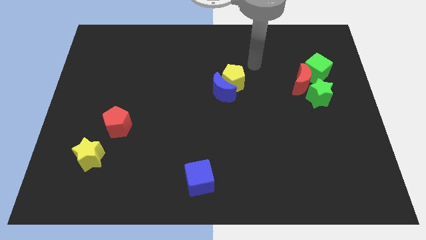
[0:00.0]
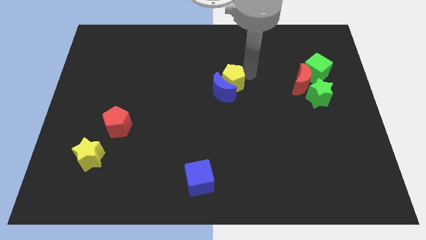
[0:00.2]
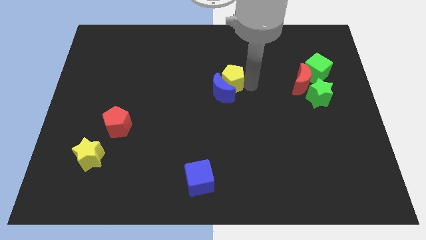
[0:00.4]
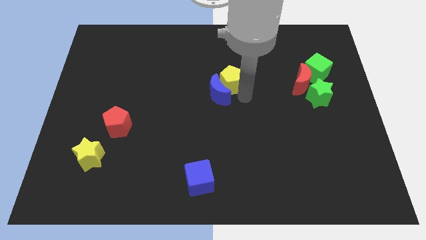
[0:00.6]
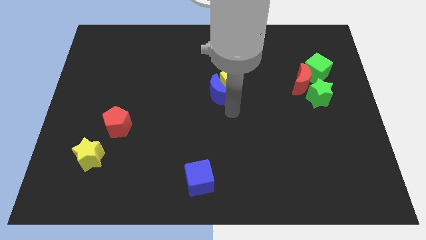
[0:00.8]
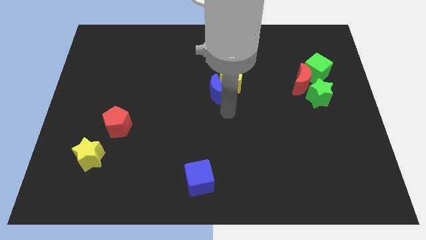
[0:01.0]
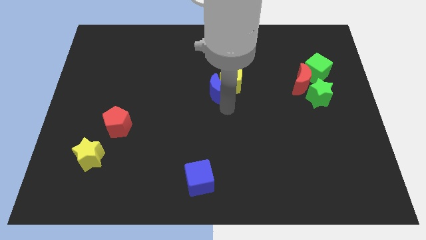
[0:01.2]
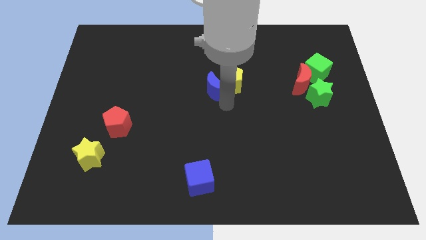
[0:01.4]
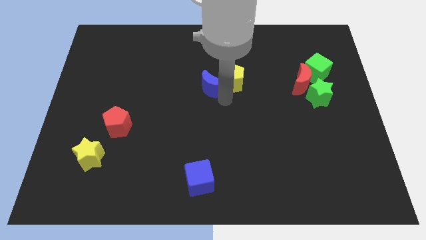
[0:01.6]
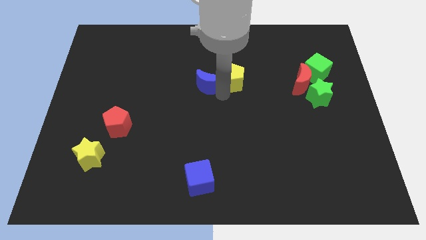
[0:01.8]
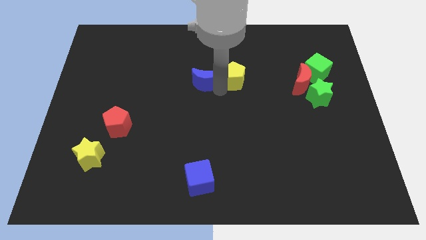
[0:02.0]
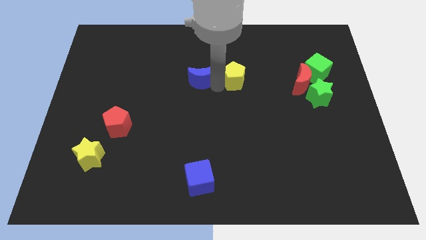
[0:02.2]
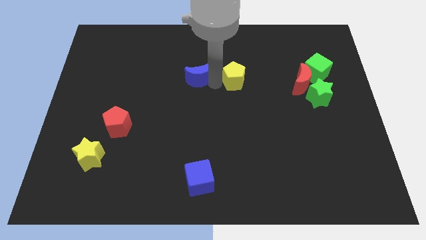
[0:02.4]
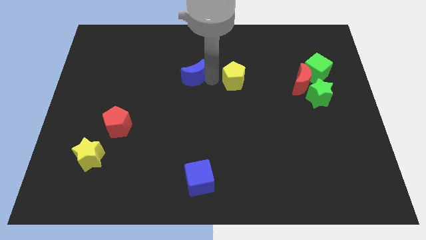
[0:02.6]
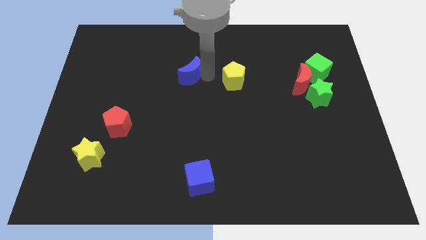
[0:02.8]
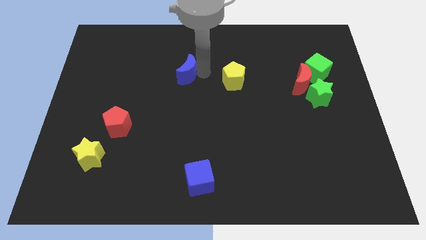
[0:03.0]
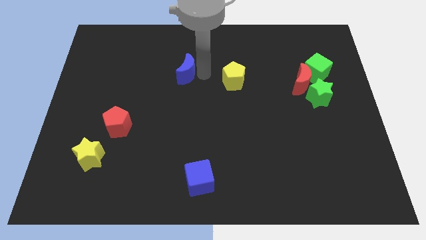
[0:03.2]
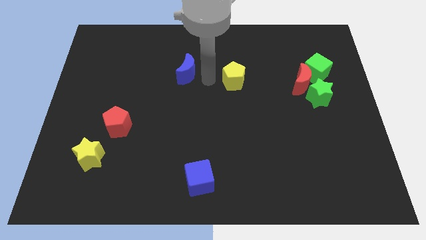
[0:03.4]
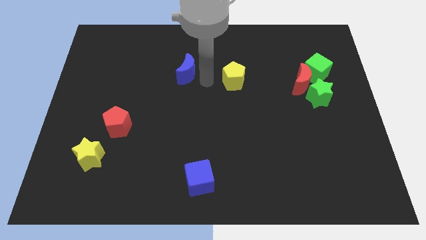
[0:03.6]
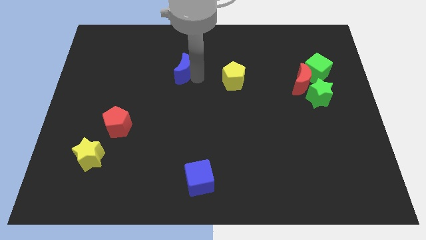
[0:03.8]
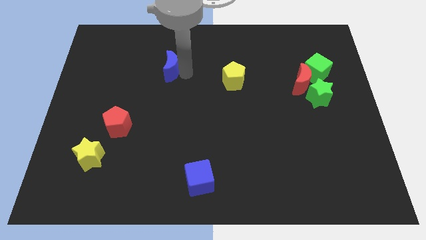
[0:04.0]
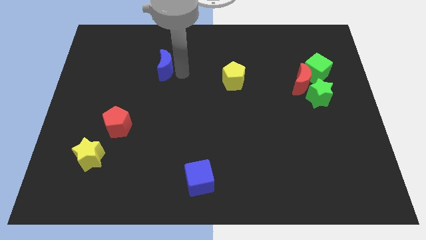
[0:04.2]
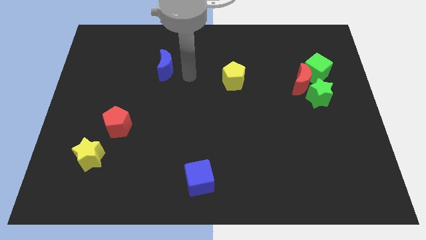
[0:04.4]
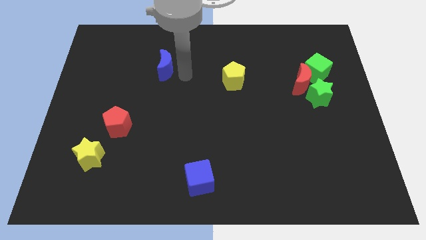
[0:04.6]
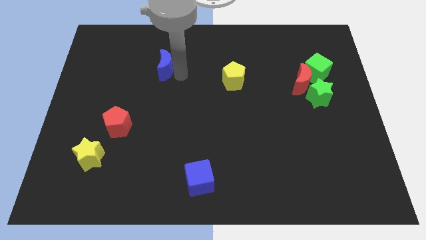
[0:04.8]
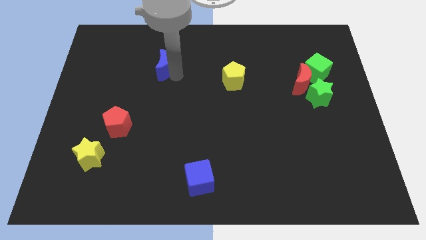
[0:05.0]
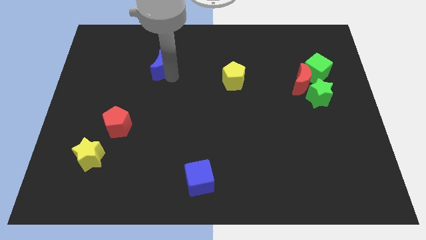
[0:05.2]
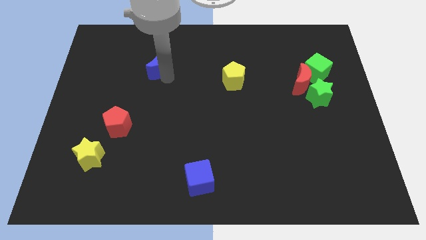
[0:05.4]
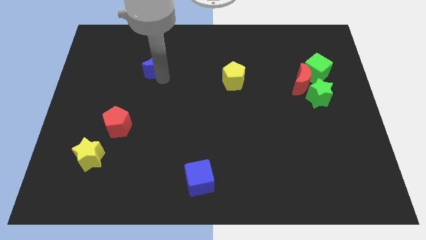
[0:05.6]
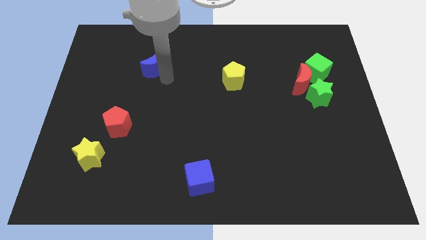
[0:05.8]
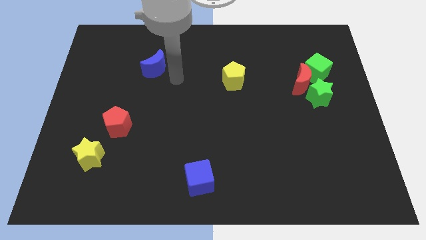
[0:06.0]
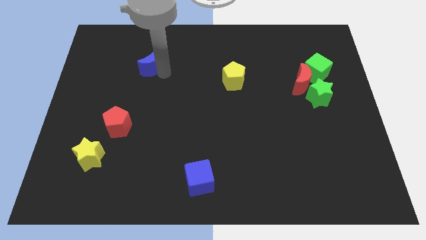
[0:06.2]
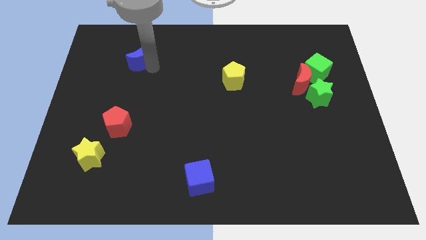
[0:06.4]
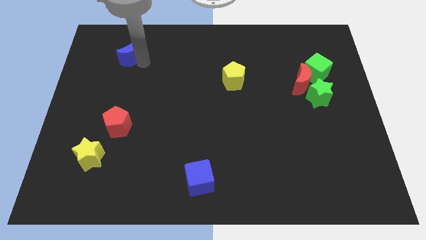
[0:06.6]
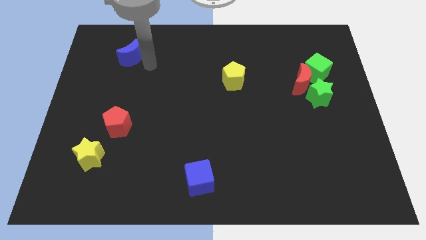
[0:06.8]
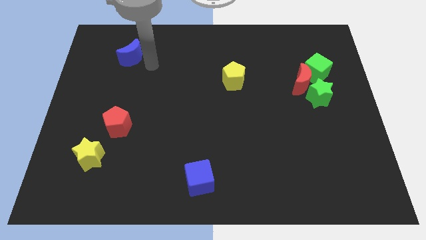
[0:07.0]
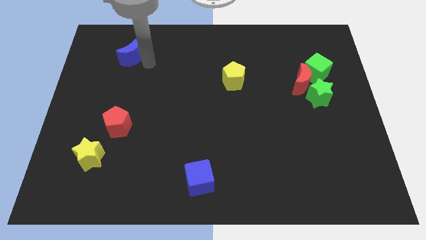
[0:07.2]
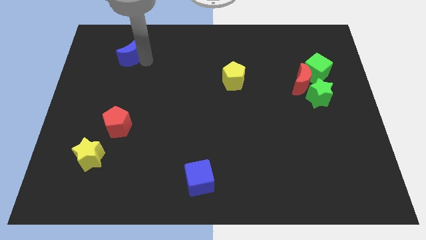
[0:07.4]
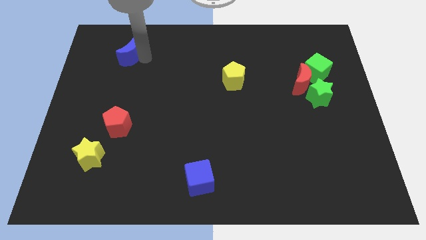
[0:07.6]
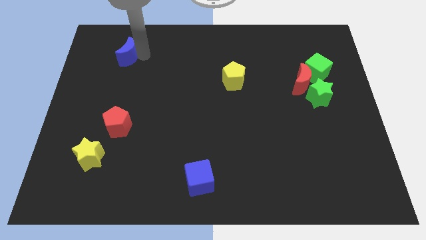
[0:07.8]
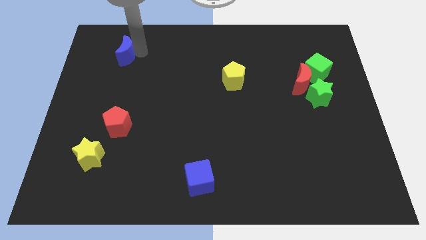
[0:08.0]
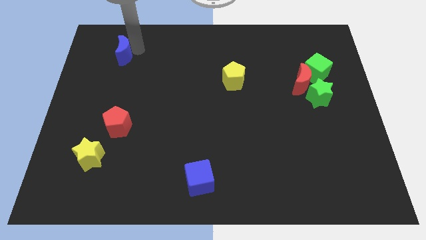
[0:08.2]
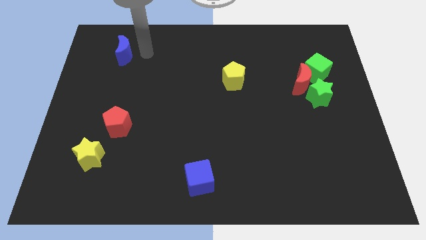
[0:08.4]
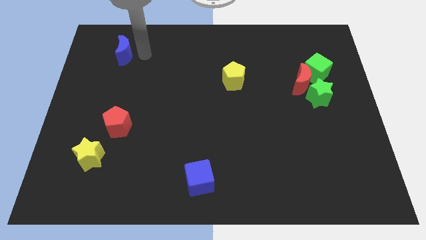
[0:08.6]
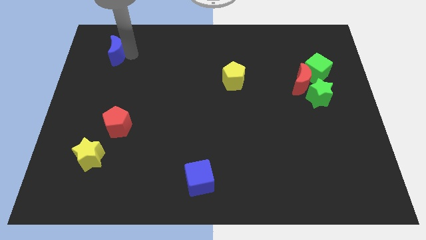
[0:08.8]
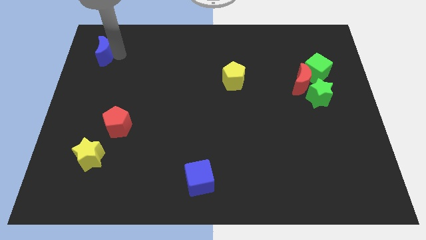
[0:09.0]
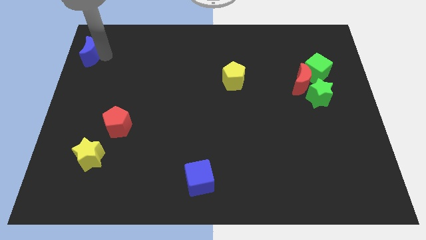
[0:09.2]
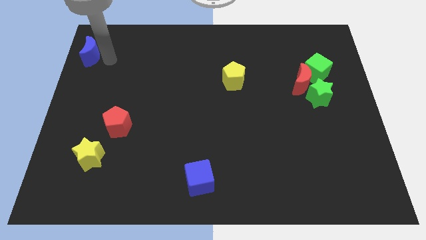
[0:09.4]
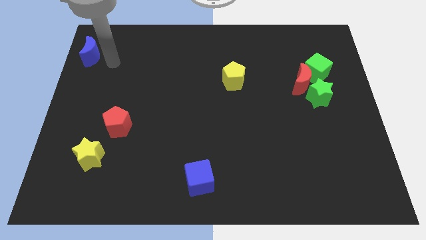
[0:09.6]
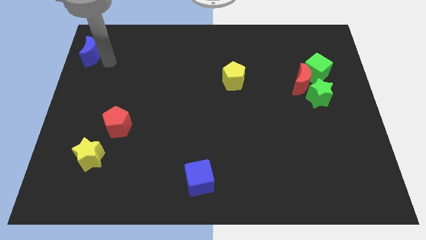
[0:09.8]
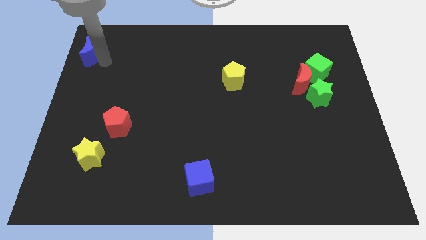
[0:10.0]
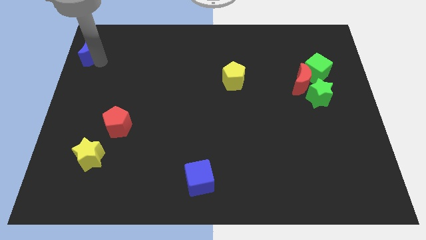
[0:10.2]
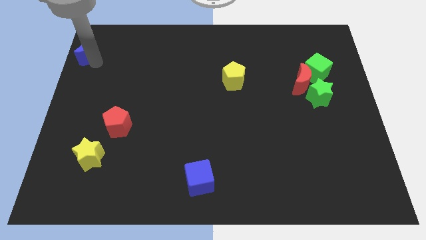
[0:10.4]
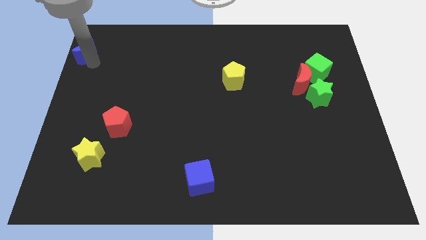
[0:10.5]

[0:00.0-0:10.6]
slide the blue moon to the upper left corner

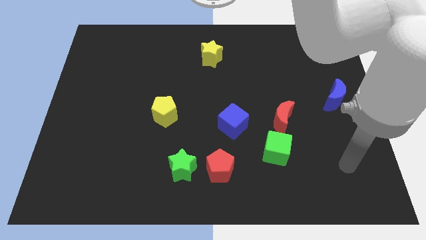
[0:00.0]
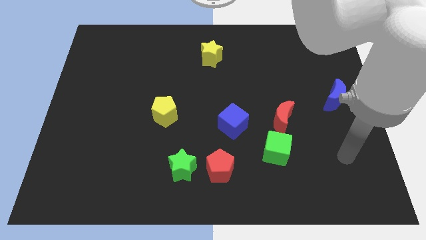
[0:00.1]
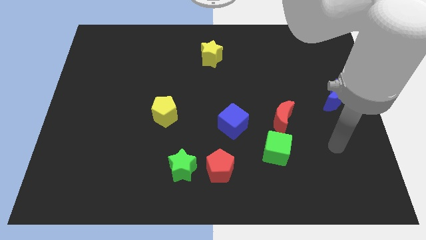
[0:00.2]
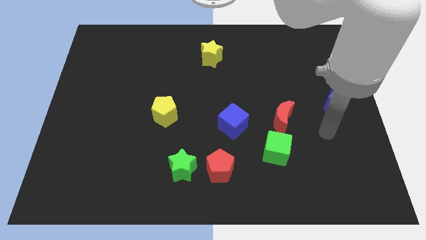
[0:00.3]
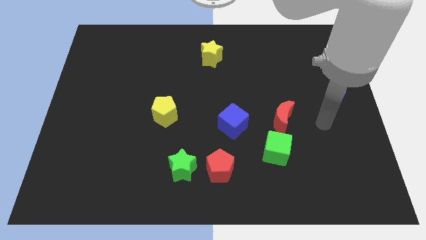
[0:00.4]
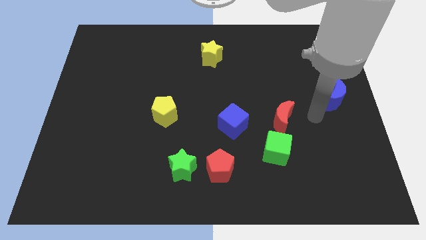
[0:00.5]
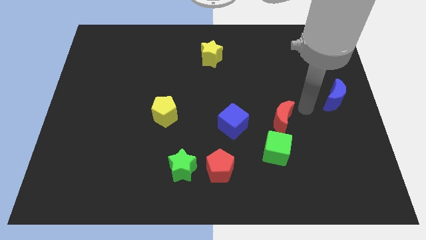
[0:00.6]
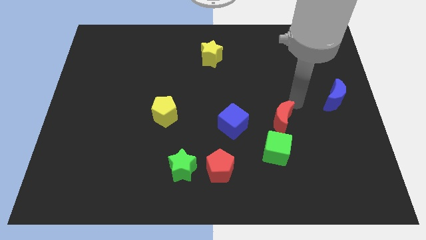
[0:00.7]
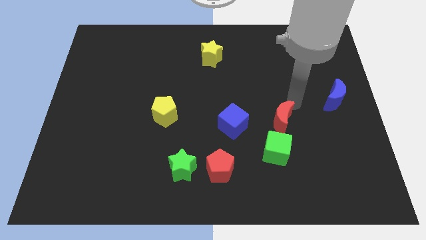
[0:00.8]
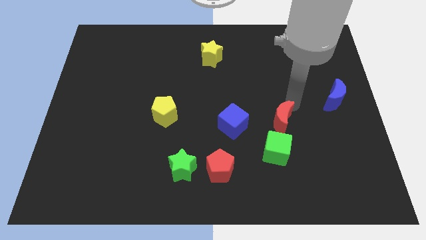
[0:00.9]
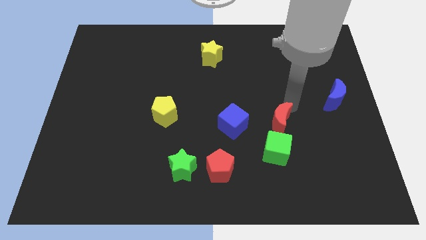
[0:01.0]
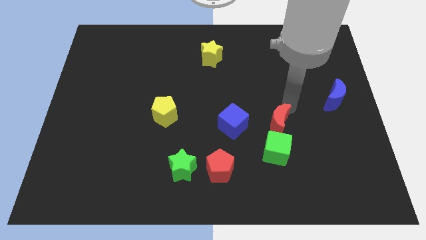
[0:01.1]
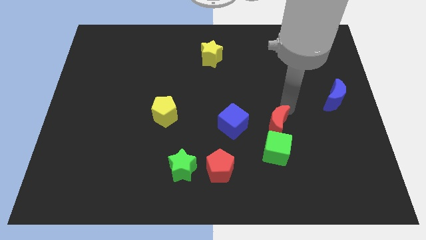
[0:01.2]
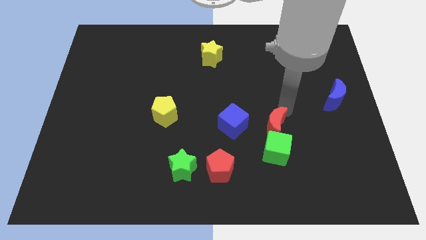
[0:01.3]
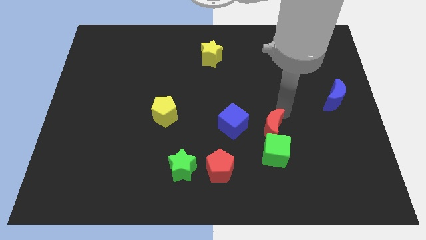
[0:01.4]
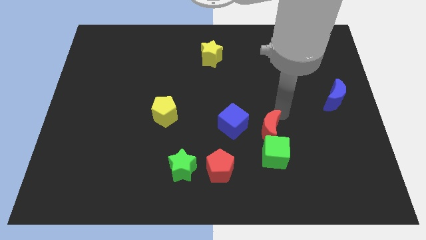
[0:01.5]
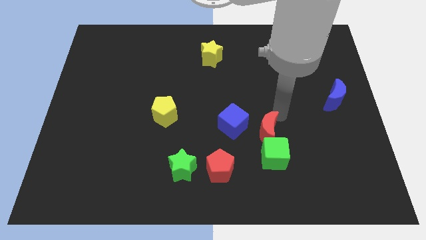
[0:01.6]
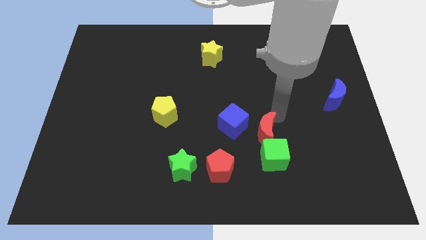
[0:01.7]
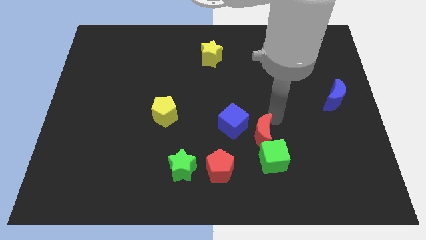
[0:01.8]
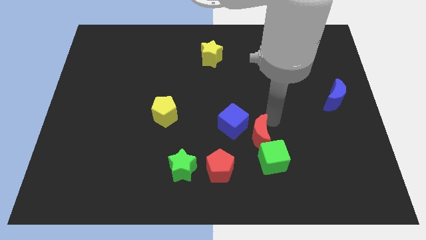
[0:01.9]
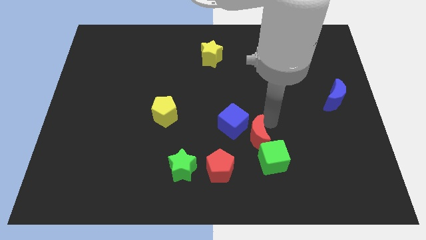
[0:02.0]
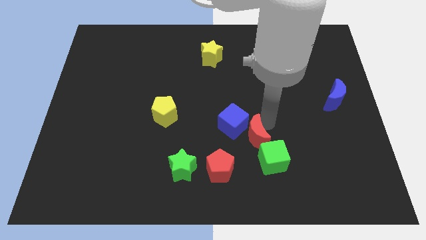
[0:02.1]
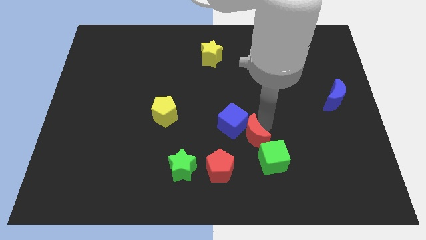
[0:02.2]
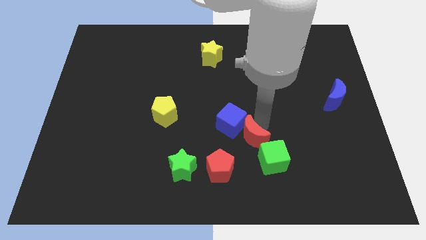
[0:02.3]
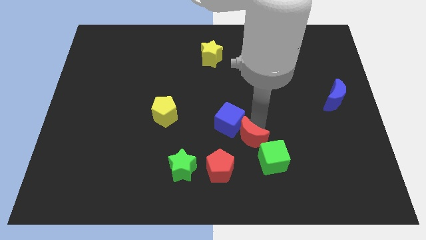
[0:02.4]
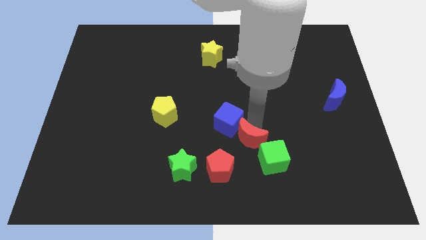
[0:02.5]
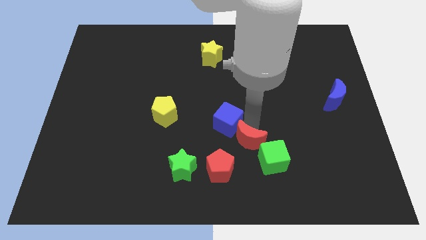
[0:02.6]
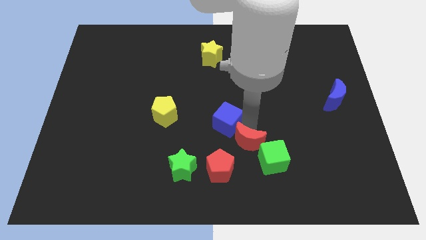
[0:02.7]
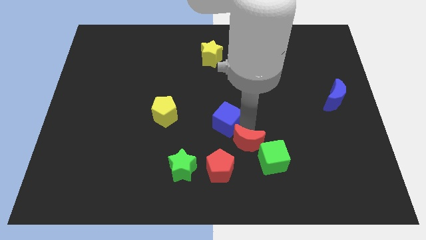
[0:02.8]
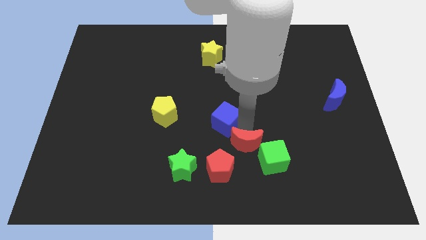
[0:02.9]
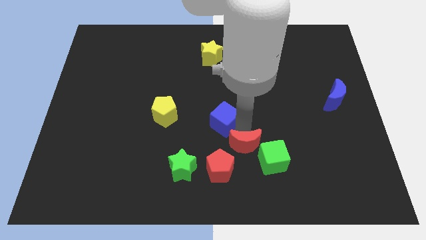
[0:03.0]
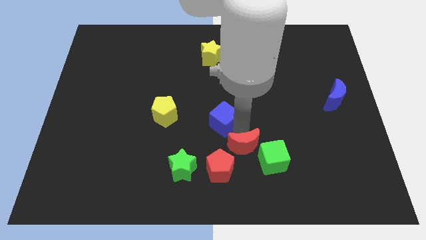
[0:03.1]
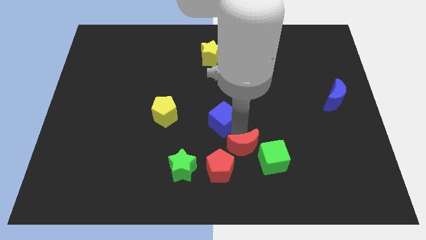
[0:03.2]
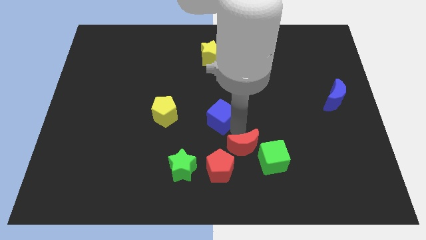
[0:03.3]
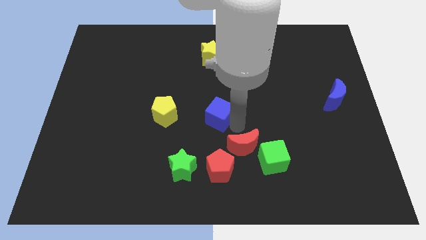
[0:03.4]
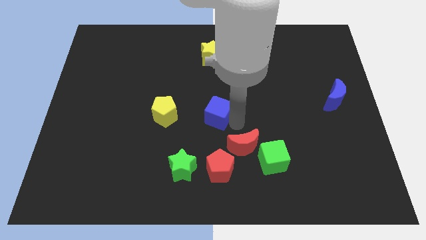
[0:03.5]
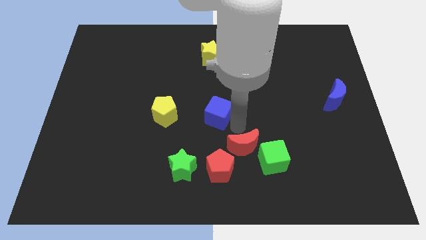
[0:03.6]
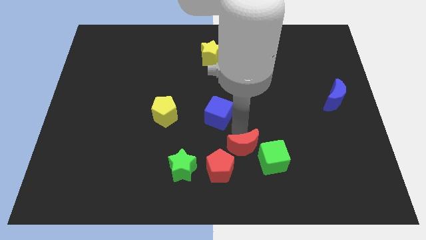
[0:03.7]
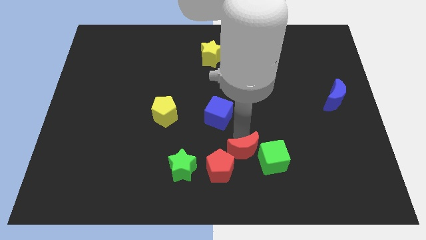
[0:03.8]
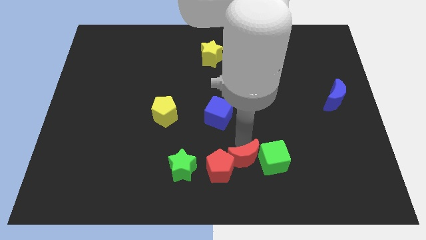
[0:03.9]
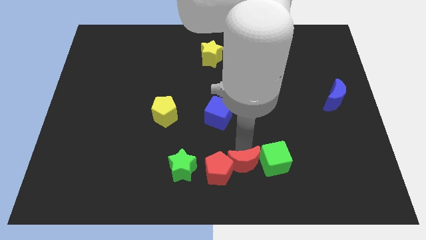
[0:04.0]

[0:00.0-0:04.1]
put the red moon to the bottom side
